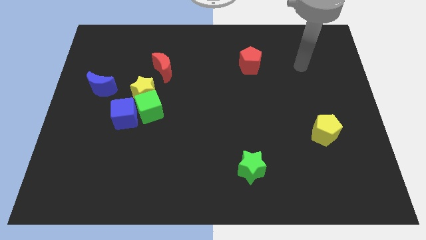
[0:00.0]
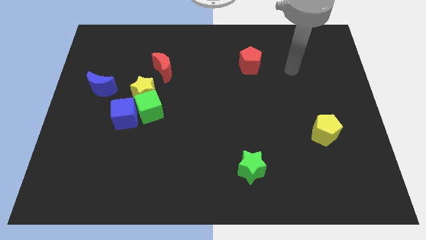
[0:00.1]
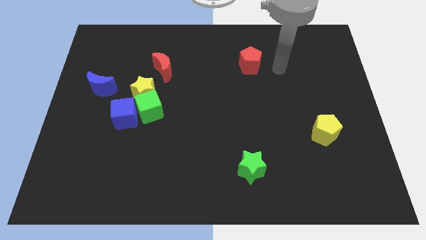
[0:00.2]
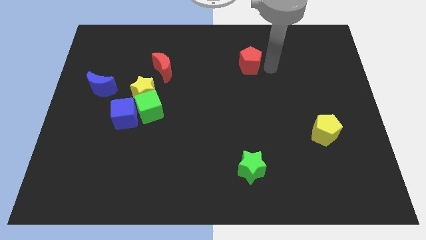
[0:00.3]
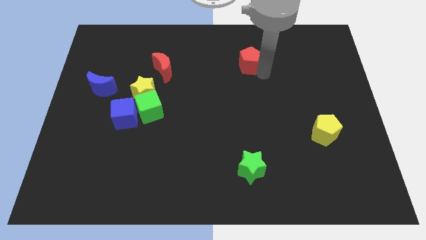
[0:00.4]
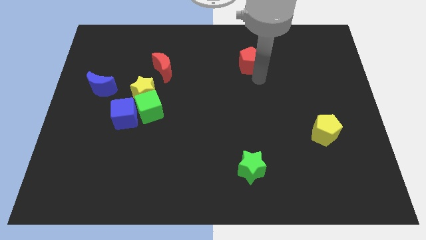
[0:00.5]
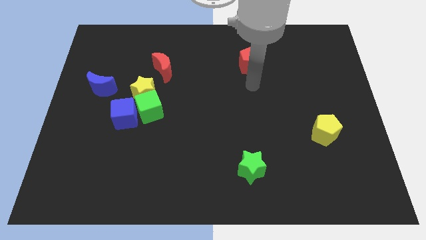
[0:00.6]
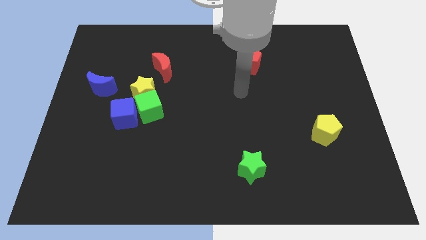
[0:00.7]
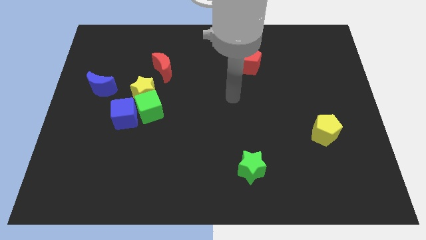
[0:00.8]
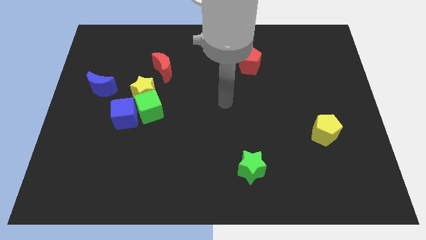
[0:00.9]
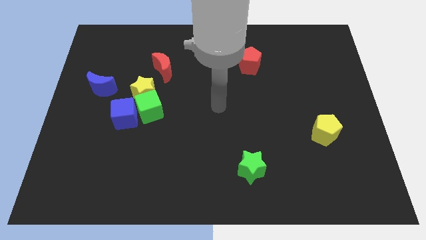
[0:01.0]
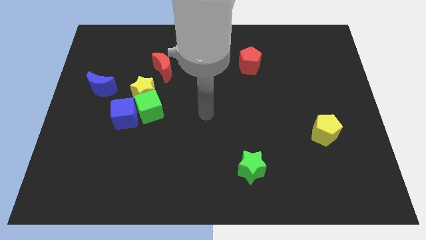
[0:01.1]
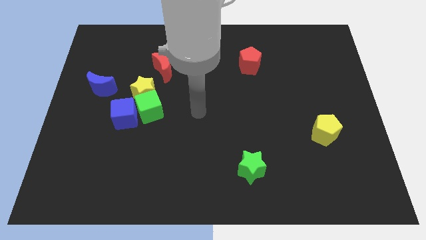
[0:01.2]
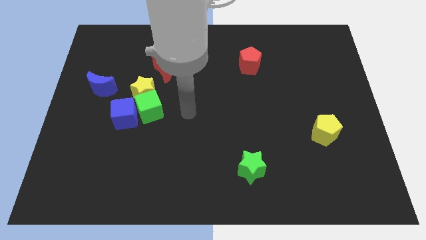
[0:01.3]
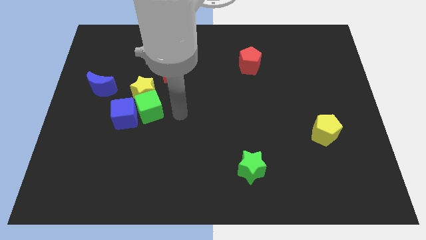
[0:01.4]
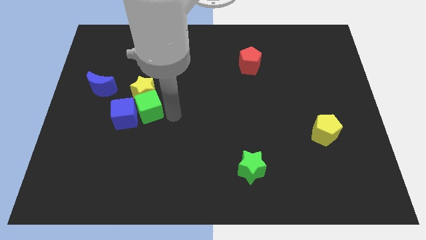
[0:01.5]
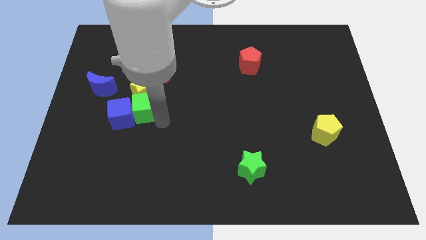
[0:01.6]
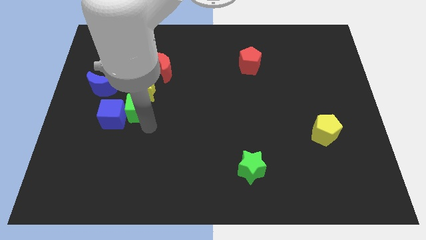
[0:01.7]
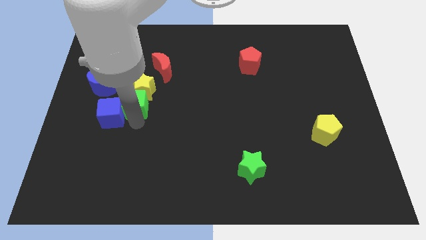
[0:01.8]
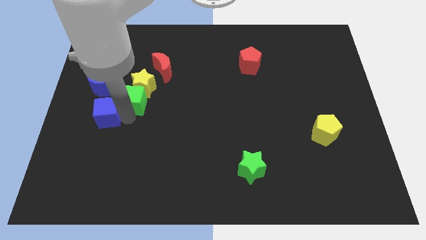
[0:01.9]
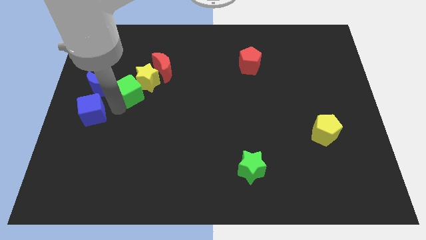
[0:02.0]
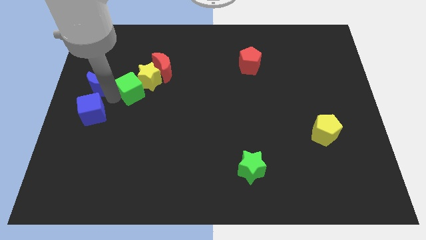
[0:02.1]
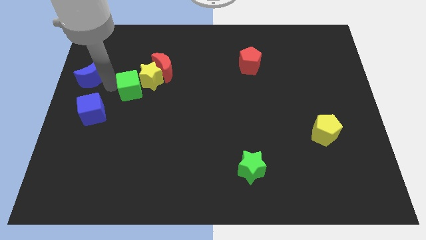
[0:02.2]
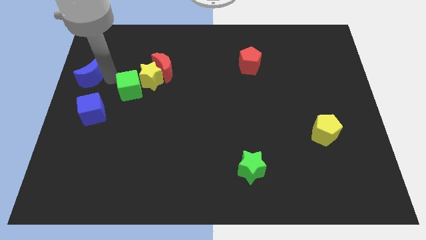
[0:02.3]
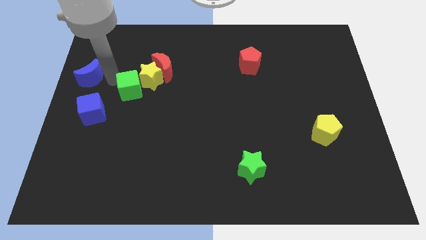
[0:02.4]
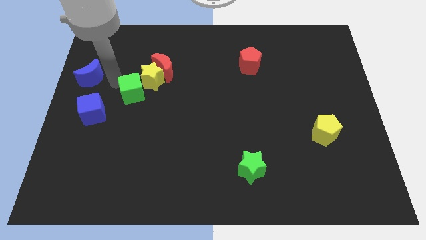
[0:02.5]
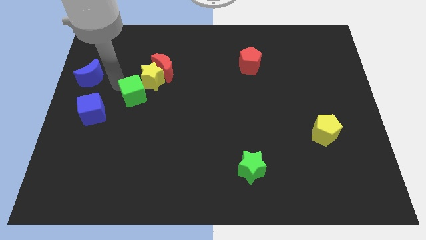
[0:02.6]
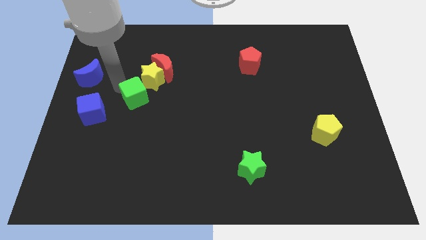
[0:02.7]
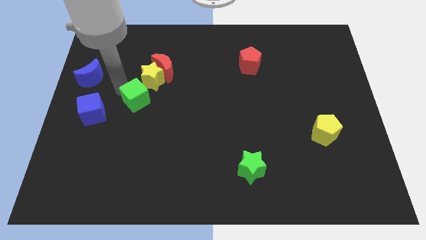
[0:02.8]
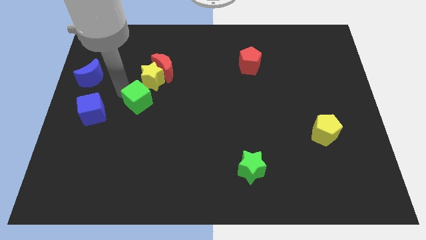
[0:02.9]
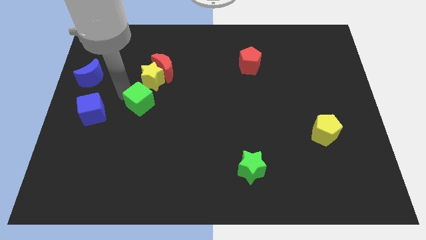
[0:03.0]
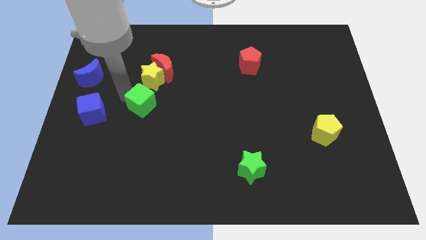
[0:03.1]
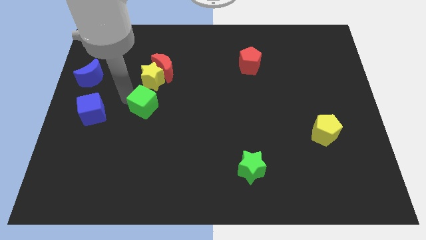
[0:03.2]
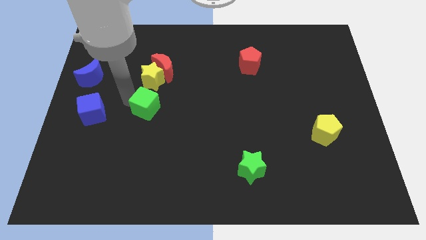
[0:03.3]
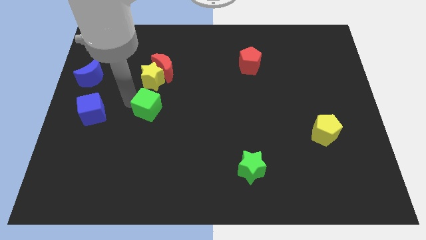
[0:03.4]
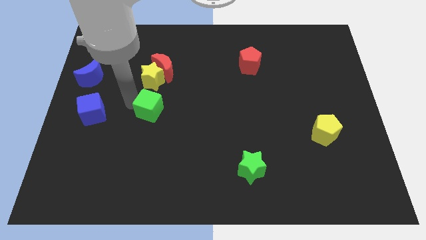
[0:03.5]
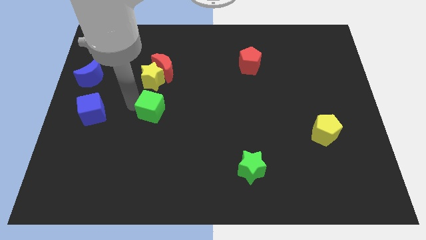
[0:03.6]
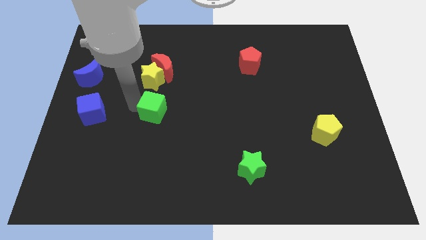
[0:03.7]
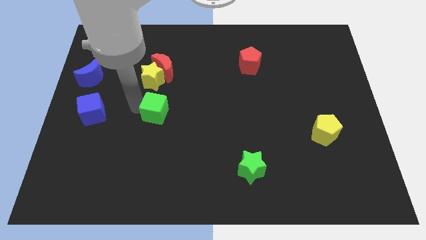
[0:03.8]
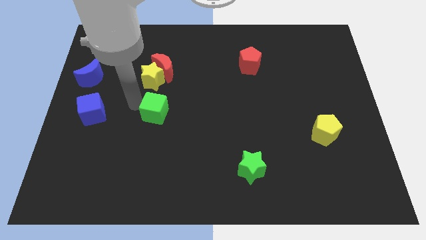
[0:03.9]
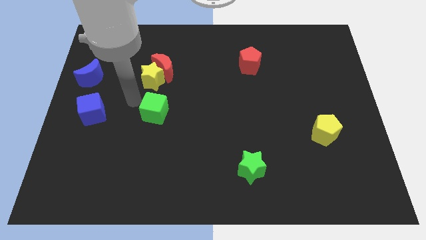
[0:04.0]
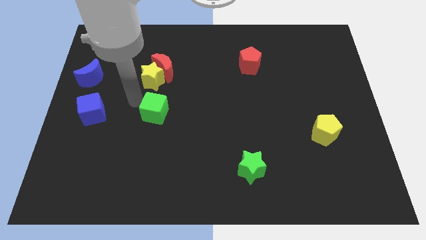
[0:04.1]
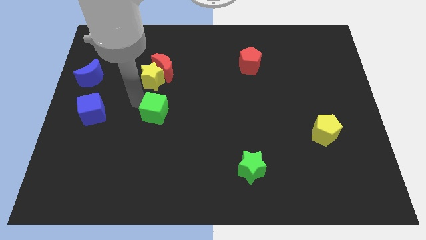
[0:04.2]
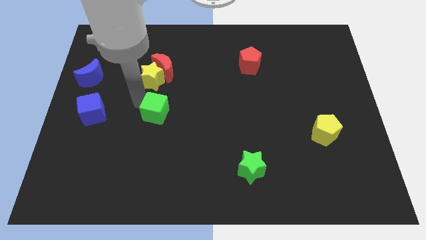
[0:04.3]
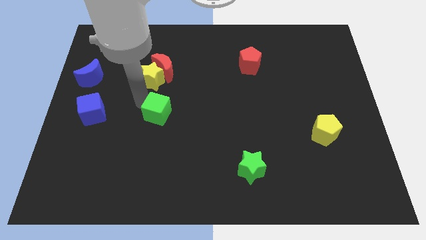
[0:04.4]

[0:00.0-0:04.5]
move the green cube away from the yellow star and blue cube

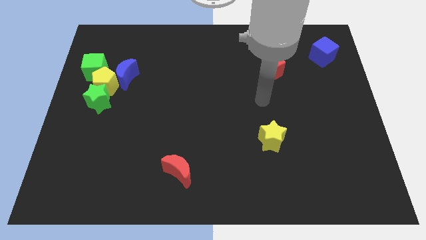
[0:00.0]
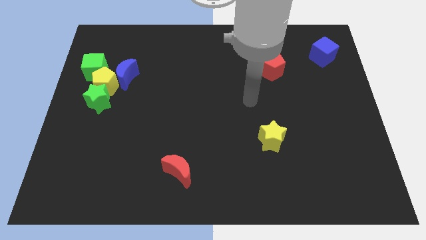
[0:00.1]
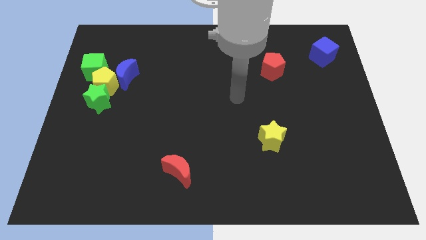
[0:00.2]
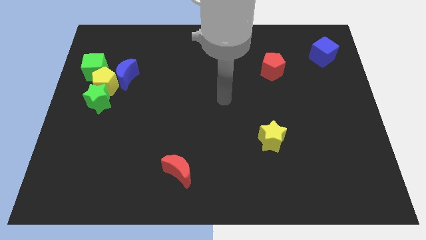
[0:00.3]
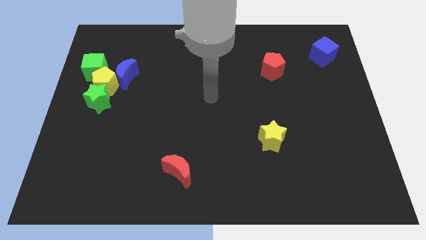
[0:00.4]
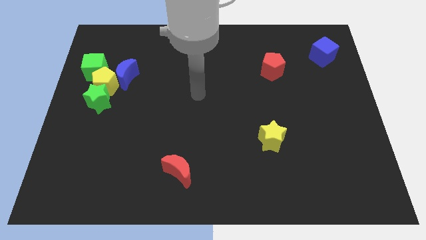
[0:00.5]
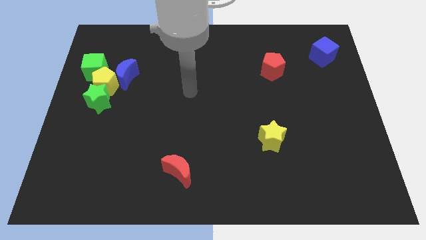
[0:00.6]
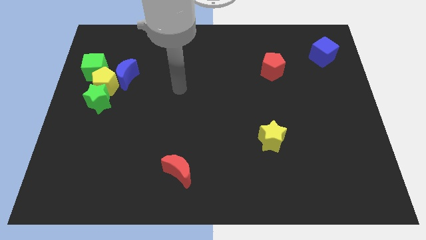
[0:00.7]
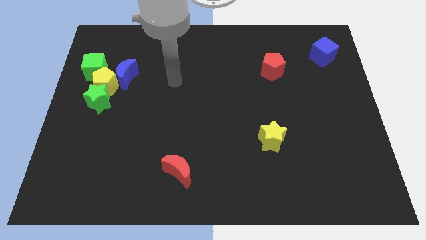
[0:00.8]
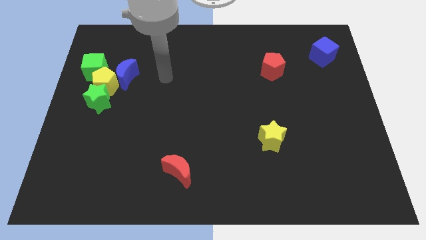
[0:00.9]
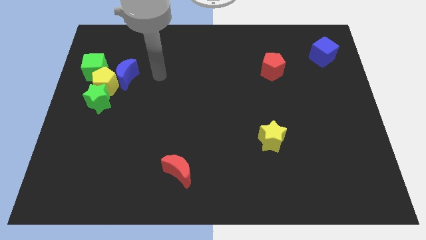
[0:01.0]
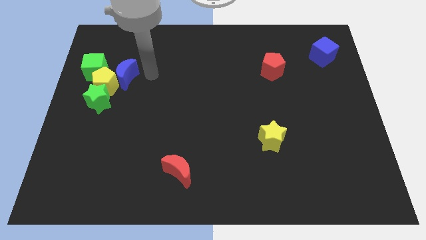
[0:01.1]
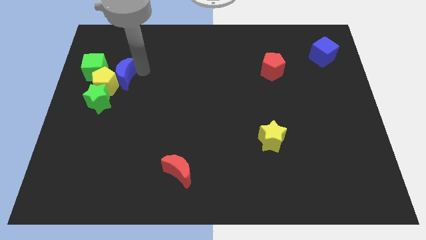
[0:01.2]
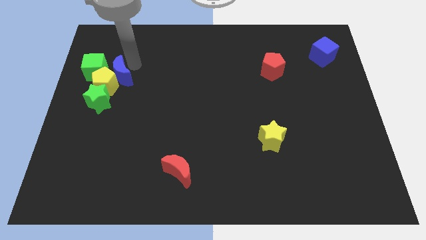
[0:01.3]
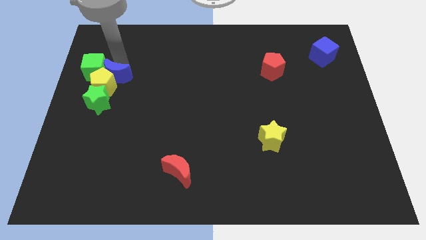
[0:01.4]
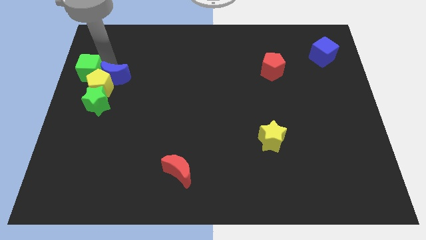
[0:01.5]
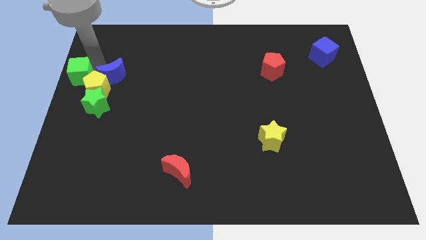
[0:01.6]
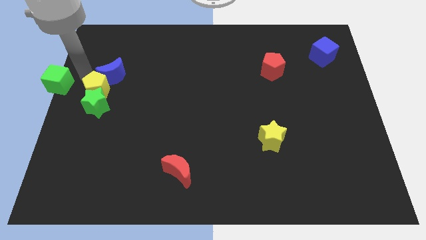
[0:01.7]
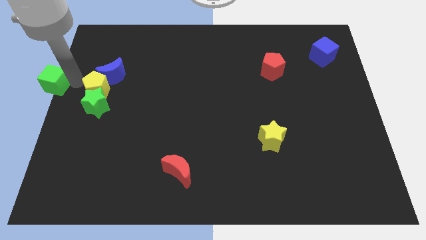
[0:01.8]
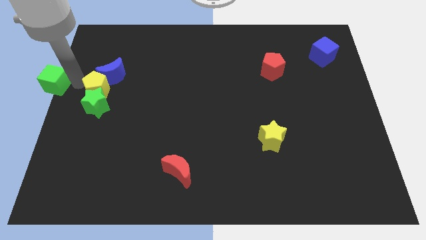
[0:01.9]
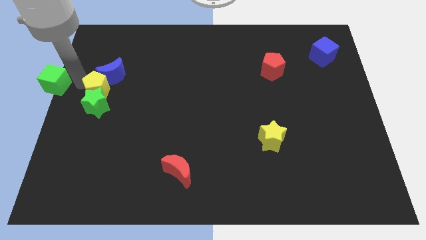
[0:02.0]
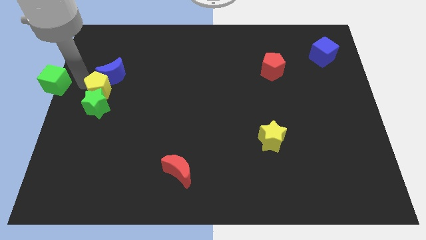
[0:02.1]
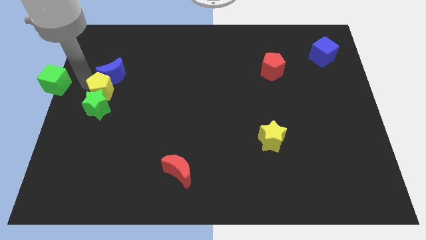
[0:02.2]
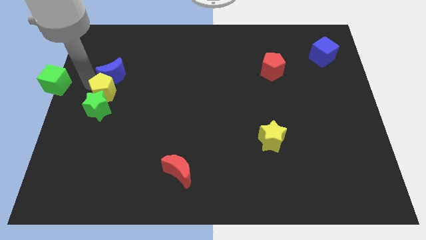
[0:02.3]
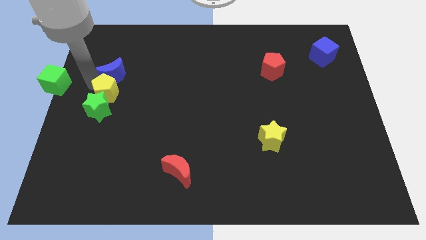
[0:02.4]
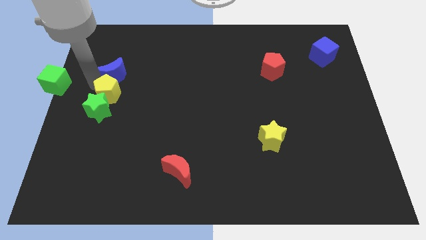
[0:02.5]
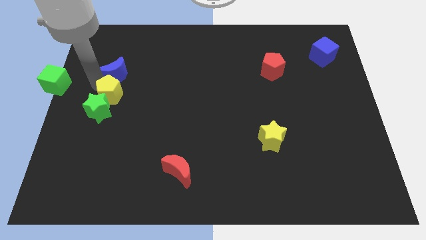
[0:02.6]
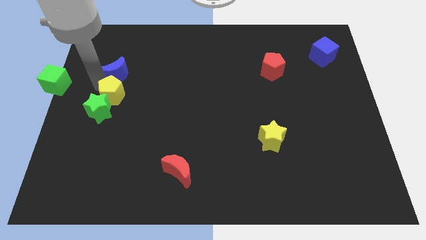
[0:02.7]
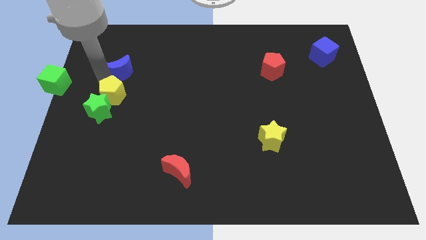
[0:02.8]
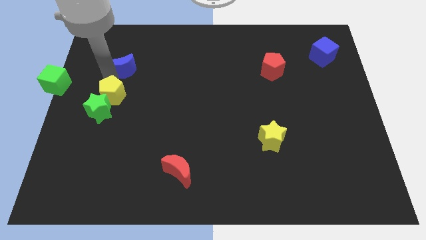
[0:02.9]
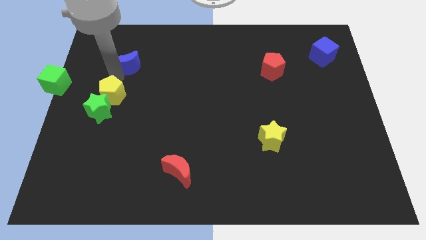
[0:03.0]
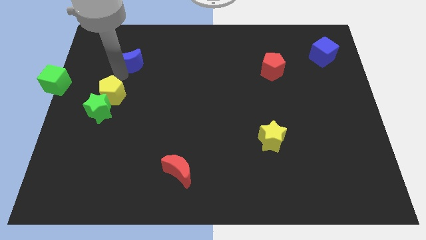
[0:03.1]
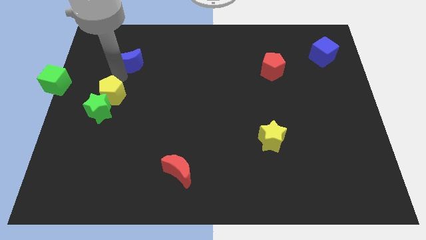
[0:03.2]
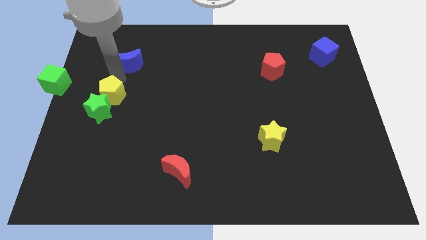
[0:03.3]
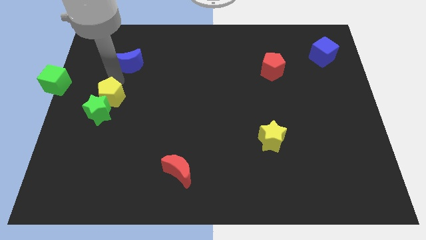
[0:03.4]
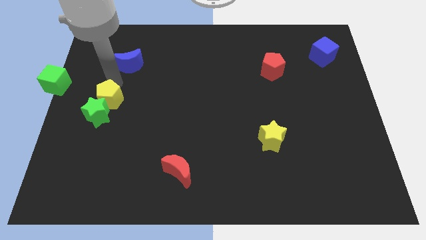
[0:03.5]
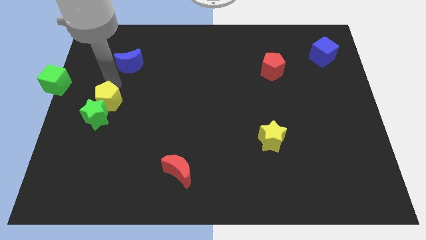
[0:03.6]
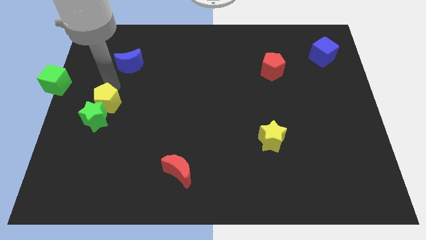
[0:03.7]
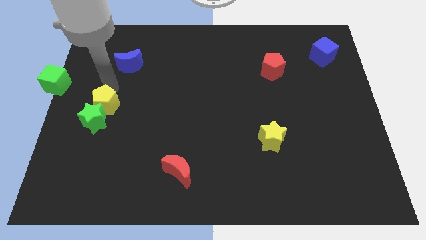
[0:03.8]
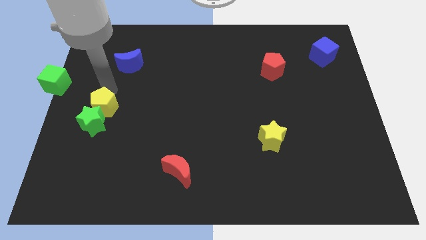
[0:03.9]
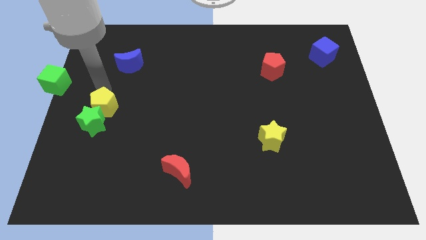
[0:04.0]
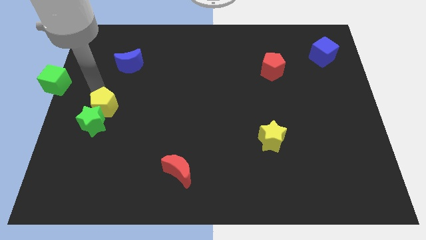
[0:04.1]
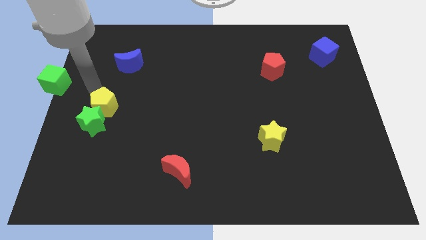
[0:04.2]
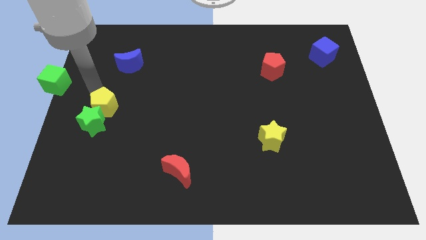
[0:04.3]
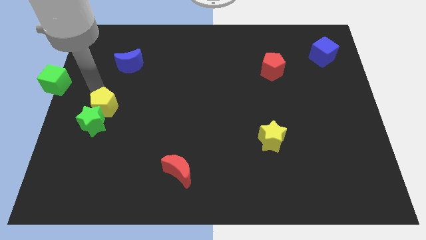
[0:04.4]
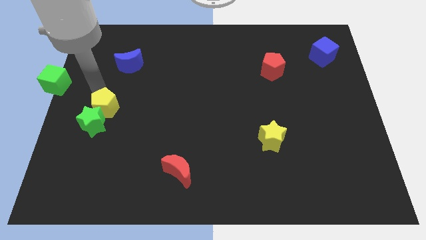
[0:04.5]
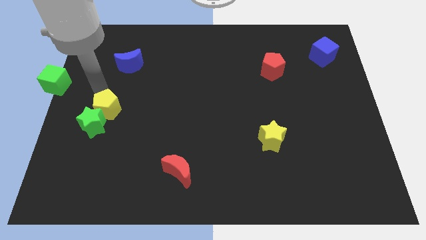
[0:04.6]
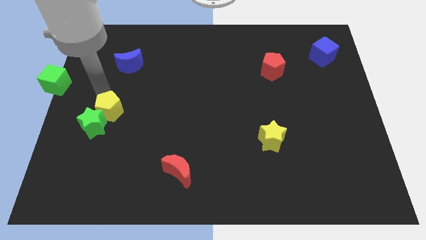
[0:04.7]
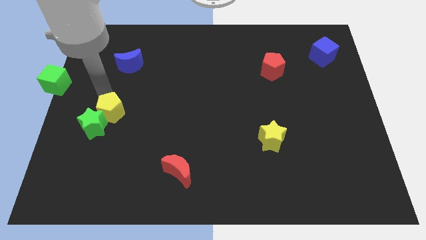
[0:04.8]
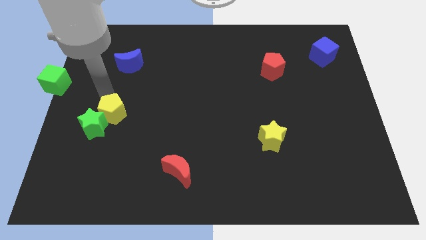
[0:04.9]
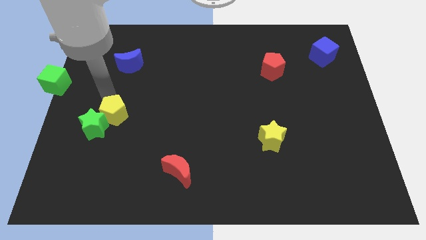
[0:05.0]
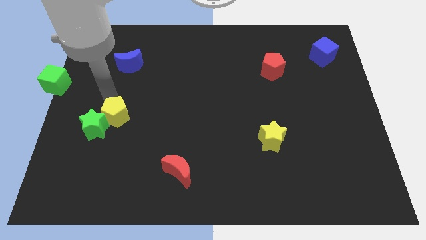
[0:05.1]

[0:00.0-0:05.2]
separate the yellow pentagon from the green star, blue moon, and green cube
